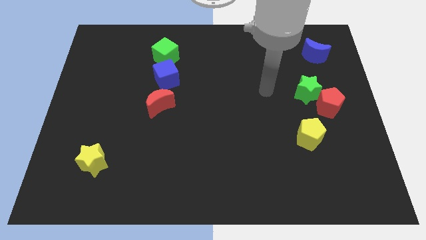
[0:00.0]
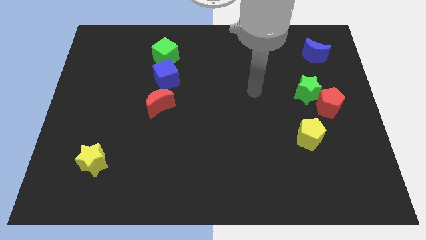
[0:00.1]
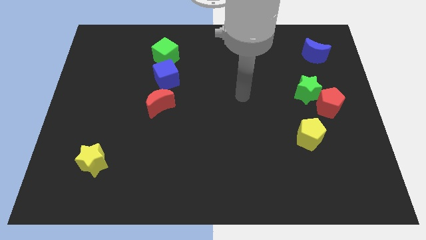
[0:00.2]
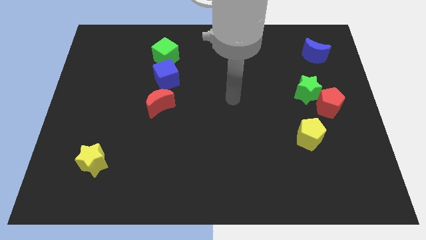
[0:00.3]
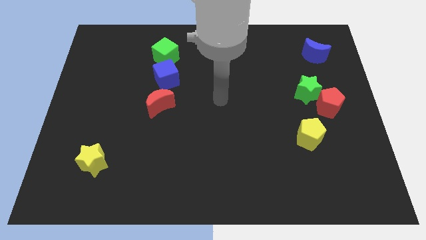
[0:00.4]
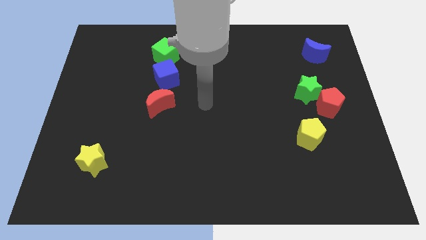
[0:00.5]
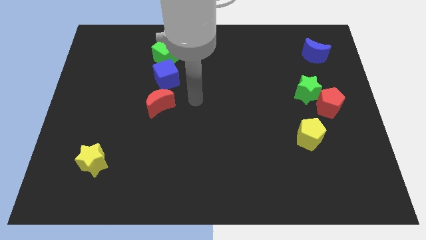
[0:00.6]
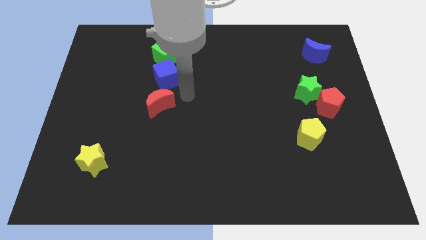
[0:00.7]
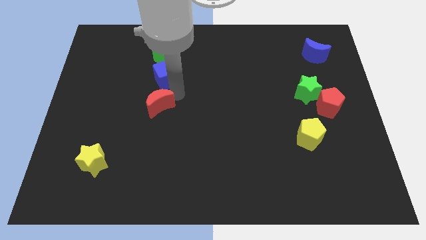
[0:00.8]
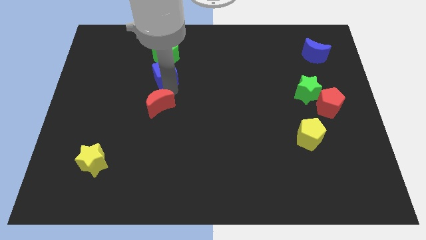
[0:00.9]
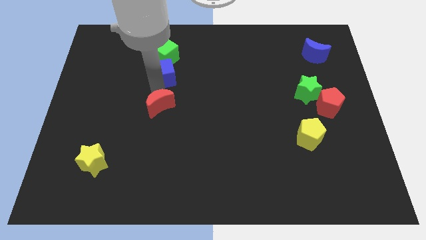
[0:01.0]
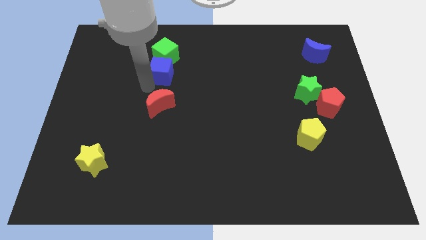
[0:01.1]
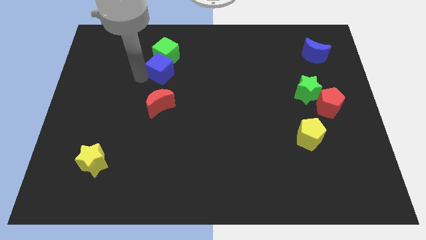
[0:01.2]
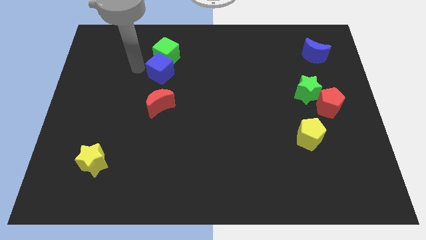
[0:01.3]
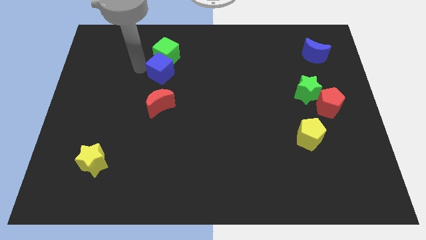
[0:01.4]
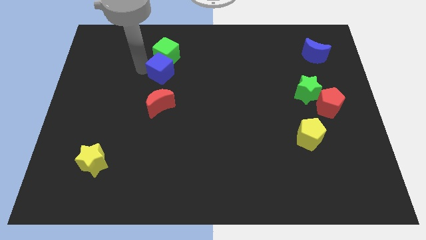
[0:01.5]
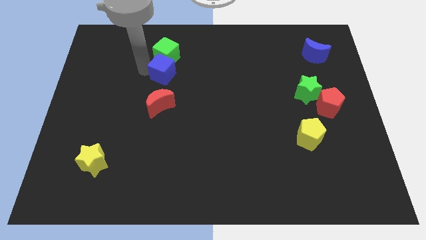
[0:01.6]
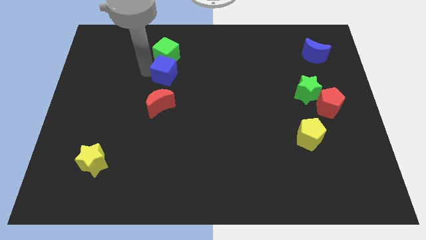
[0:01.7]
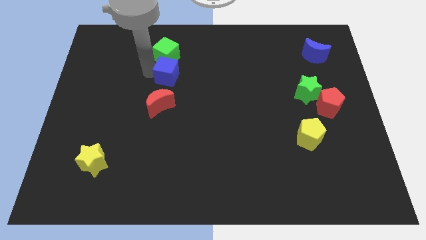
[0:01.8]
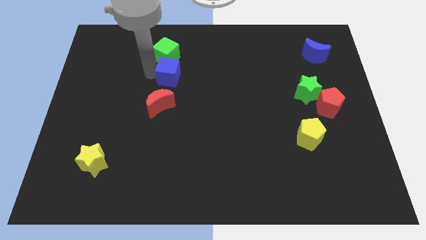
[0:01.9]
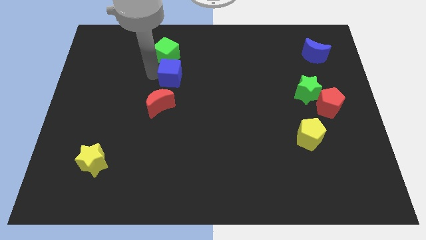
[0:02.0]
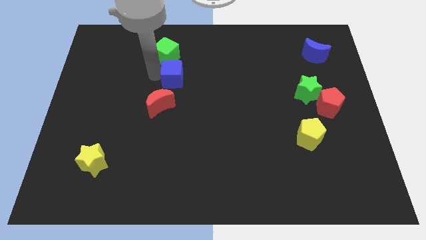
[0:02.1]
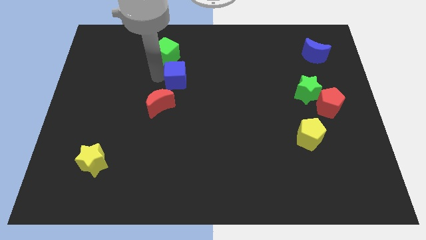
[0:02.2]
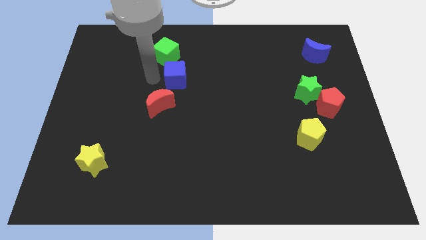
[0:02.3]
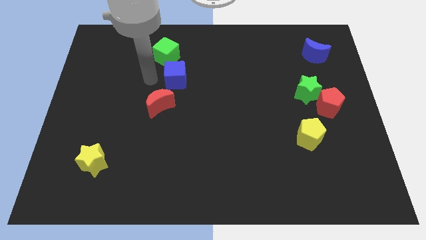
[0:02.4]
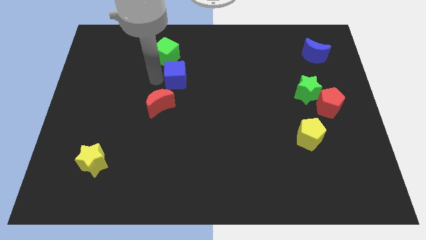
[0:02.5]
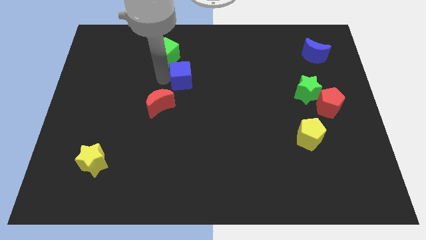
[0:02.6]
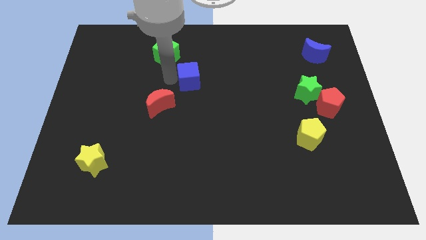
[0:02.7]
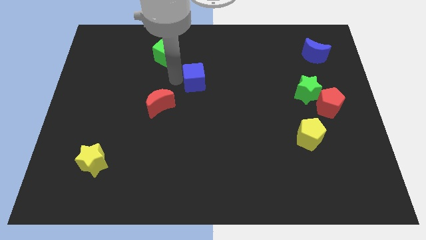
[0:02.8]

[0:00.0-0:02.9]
move the blue cube a bit right

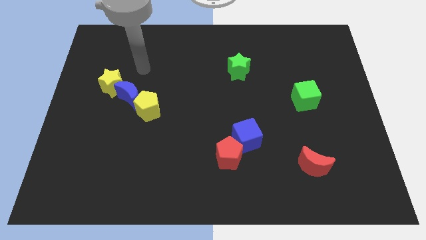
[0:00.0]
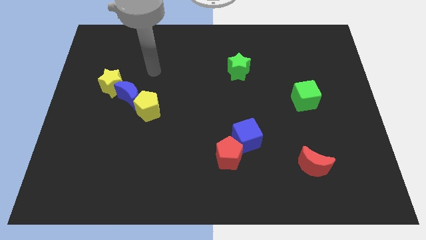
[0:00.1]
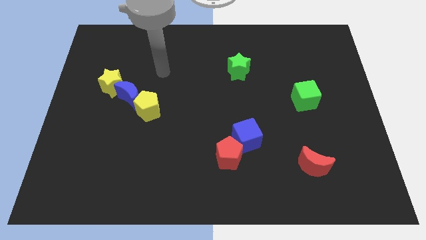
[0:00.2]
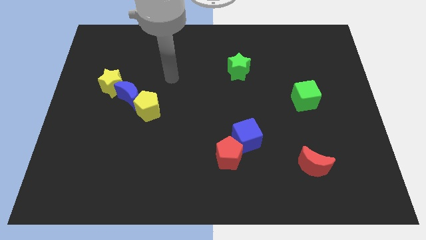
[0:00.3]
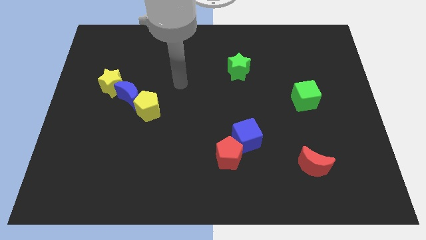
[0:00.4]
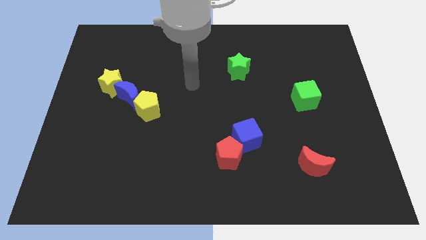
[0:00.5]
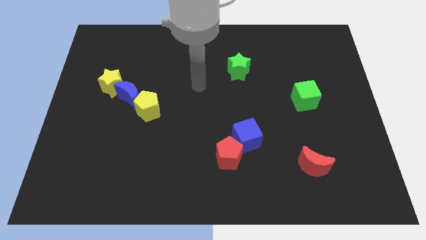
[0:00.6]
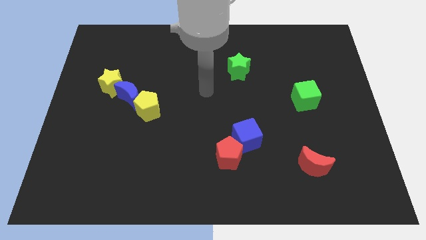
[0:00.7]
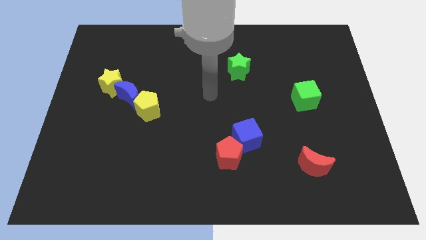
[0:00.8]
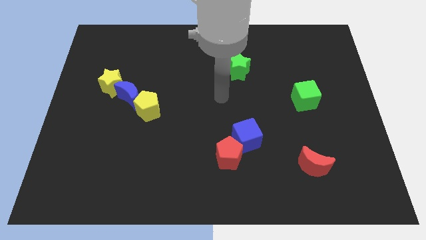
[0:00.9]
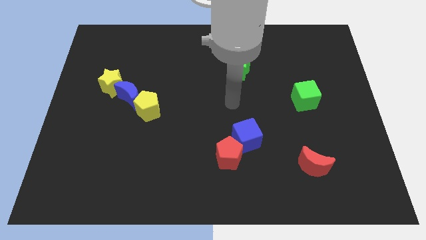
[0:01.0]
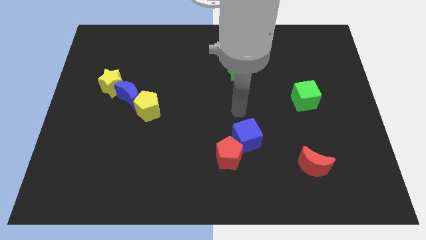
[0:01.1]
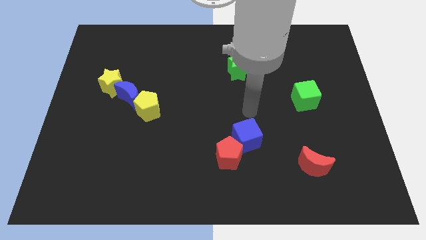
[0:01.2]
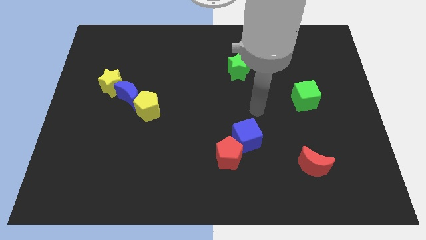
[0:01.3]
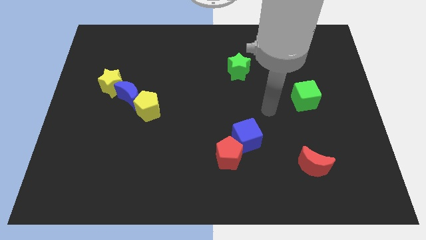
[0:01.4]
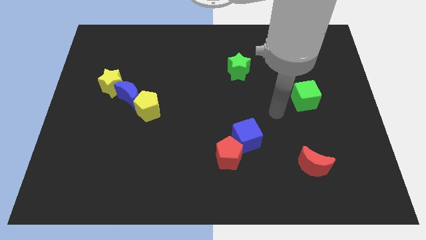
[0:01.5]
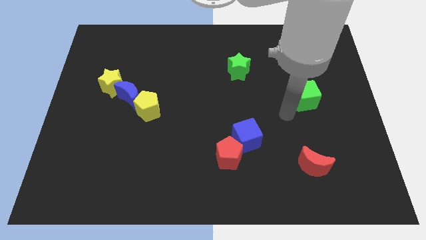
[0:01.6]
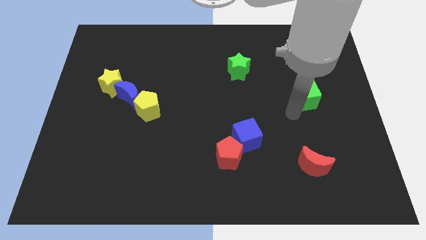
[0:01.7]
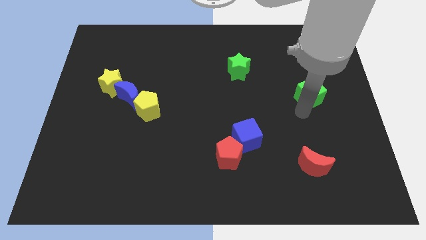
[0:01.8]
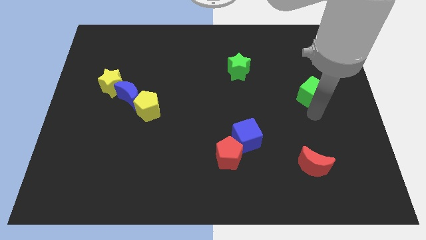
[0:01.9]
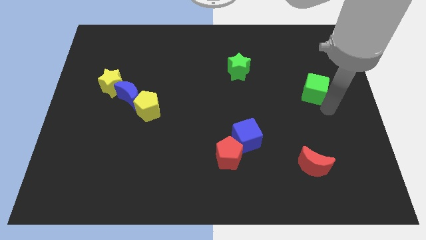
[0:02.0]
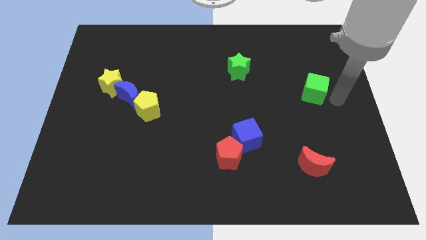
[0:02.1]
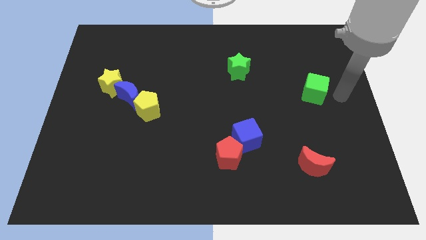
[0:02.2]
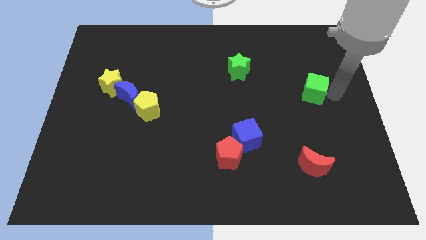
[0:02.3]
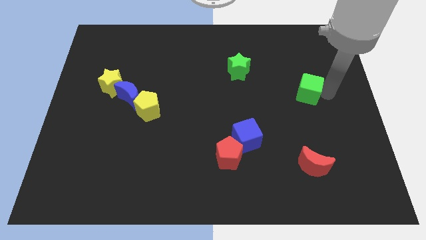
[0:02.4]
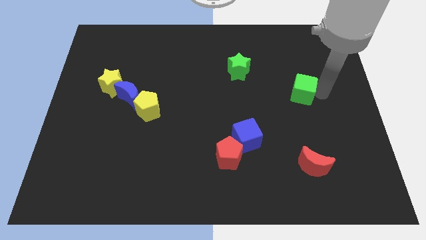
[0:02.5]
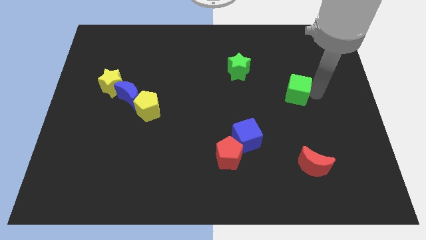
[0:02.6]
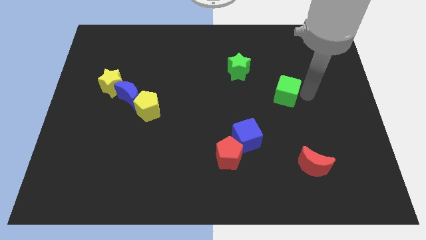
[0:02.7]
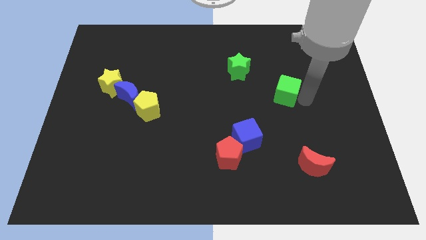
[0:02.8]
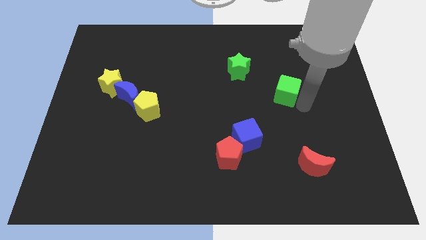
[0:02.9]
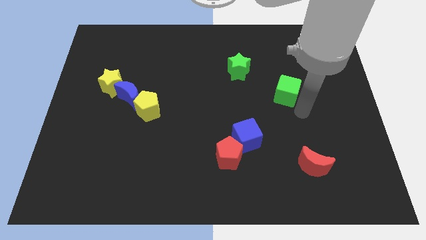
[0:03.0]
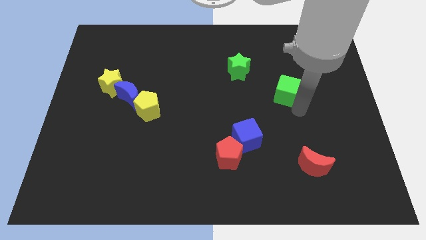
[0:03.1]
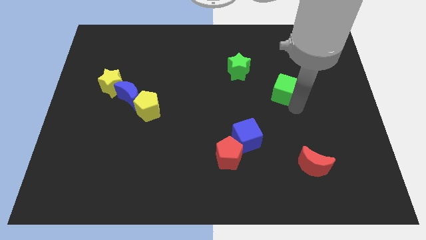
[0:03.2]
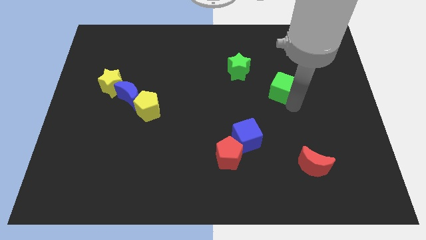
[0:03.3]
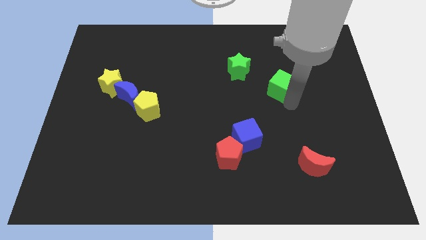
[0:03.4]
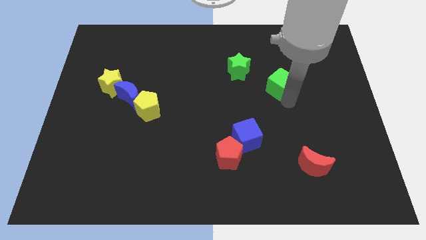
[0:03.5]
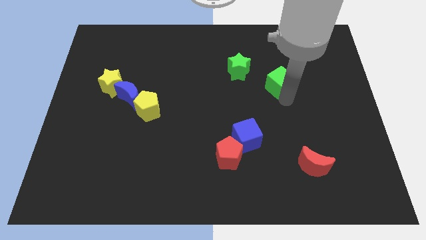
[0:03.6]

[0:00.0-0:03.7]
slide the green cube slightly diagonally up and left

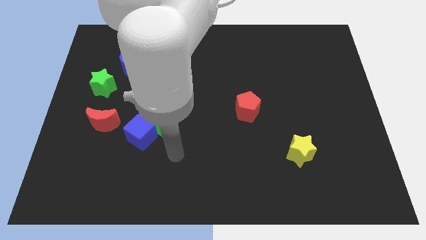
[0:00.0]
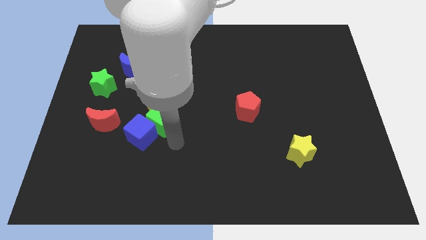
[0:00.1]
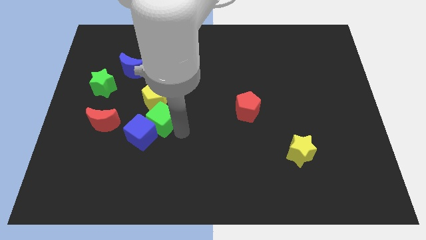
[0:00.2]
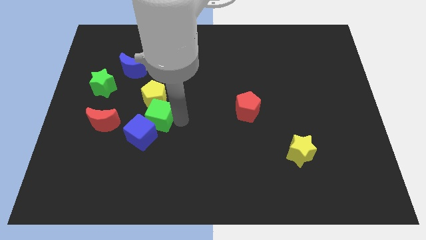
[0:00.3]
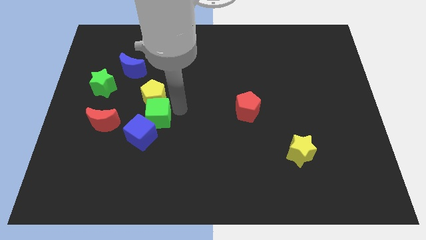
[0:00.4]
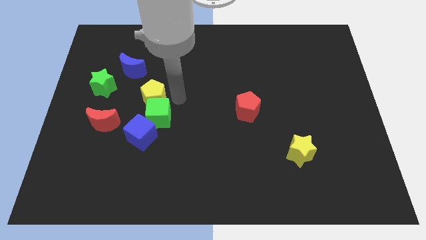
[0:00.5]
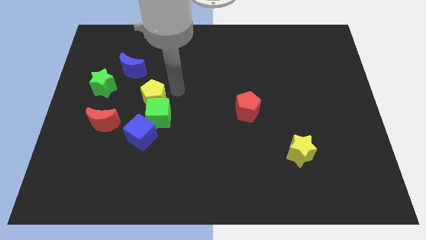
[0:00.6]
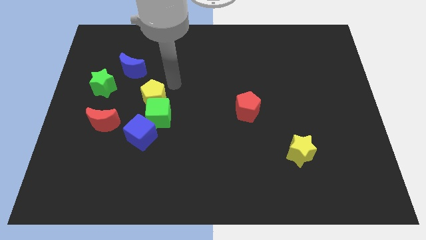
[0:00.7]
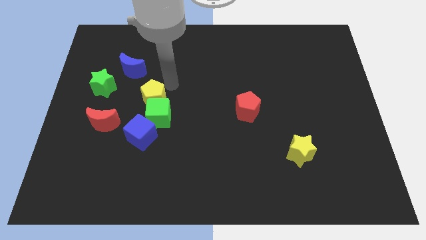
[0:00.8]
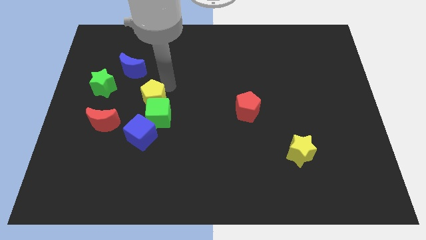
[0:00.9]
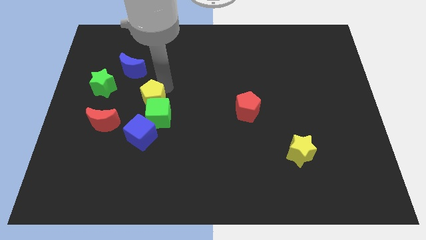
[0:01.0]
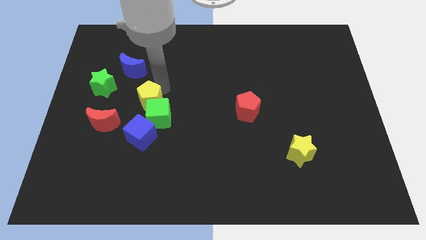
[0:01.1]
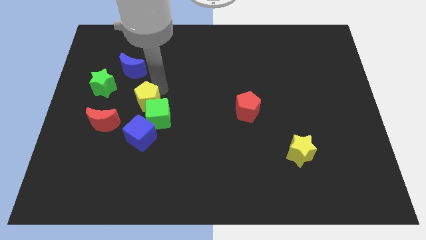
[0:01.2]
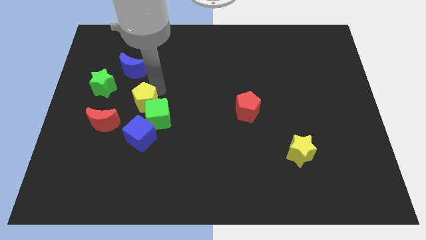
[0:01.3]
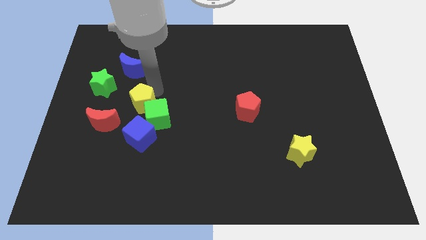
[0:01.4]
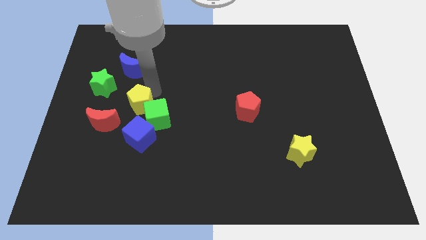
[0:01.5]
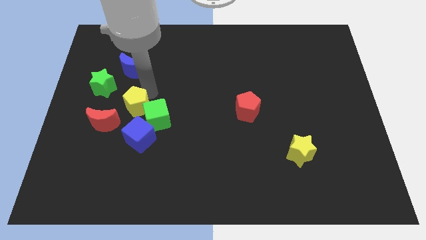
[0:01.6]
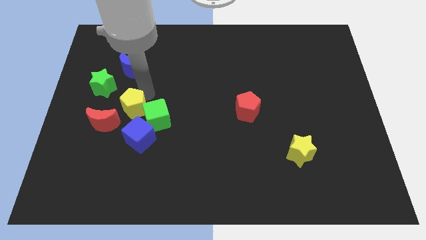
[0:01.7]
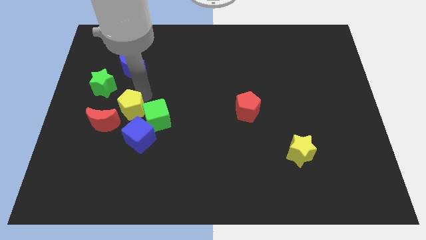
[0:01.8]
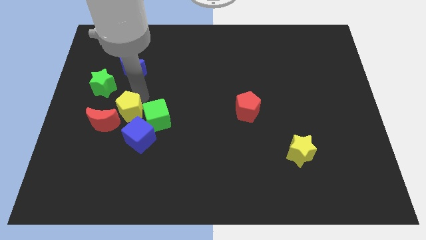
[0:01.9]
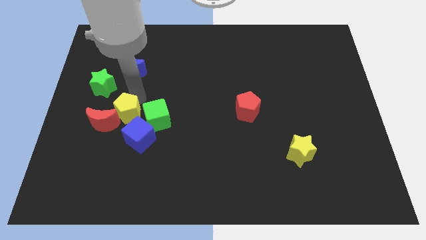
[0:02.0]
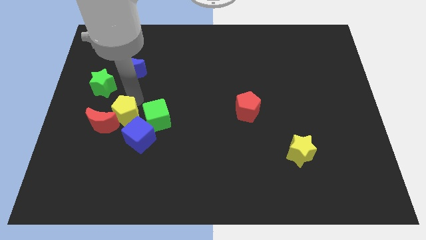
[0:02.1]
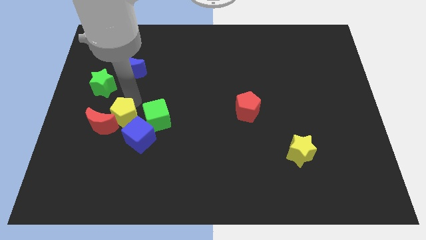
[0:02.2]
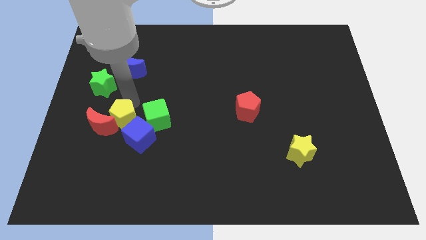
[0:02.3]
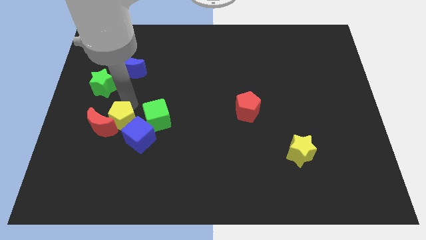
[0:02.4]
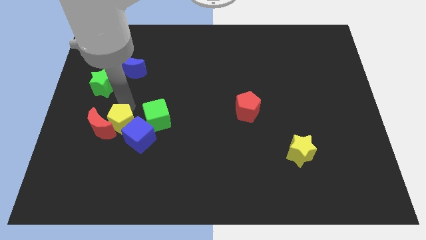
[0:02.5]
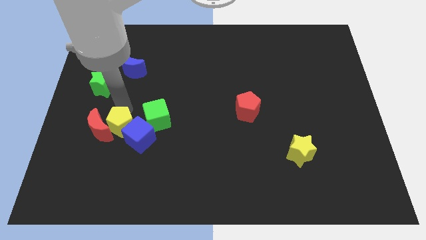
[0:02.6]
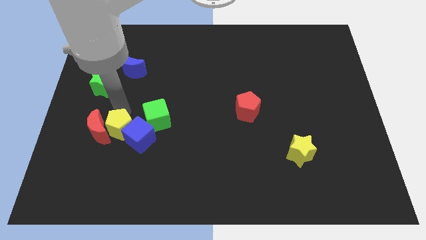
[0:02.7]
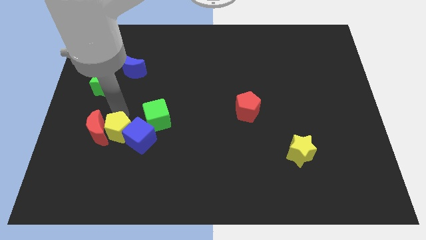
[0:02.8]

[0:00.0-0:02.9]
slide the yellow pentagon a little bit down
